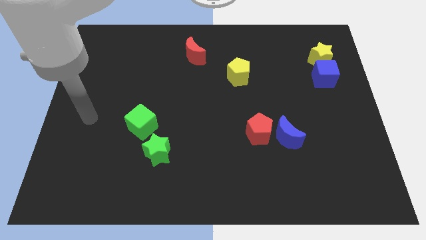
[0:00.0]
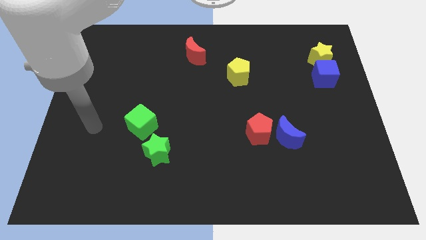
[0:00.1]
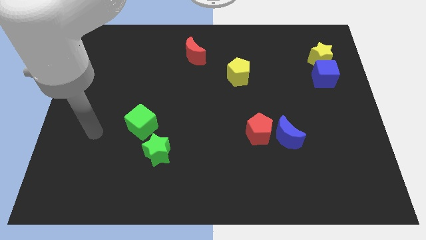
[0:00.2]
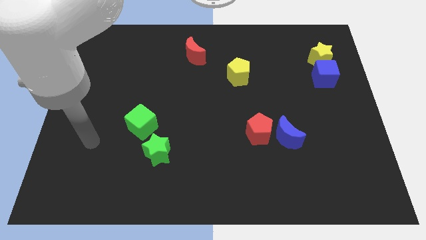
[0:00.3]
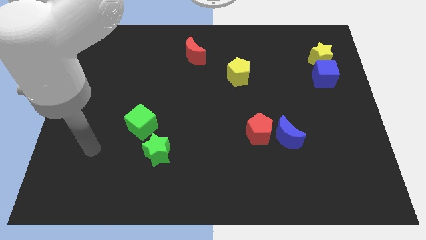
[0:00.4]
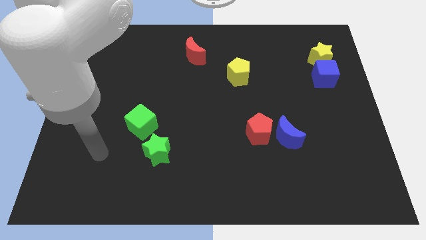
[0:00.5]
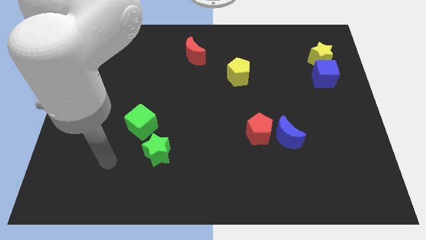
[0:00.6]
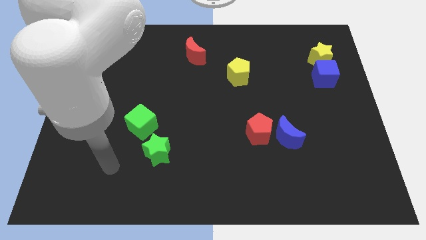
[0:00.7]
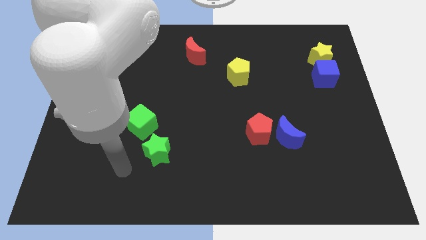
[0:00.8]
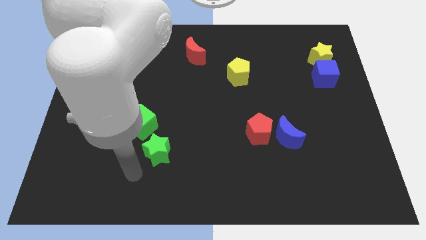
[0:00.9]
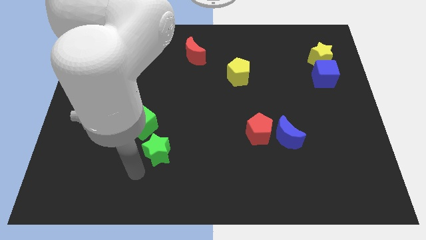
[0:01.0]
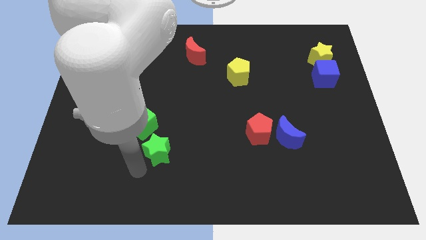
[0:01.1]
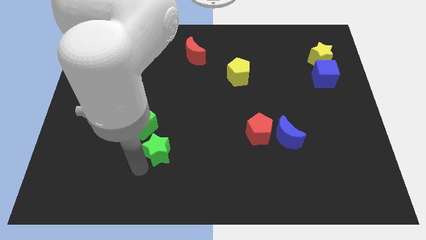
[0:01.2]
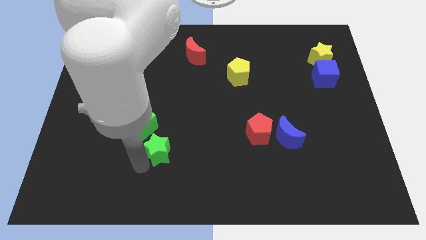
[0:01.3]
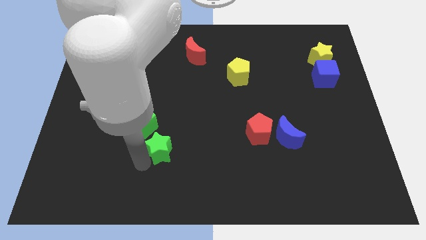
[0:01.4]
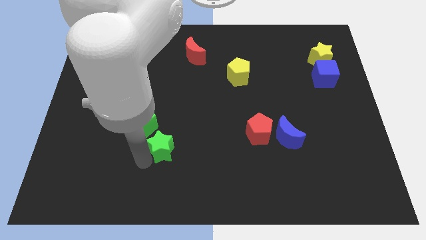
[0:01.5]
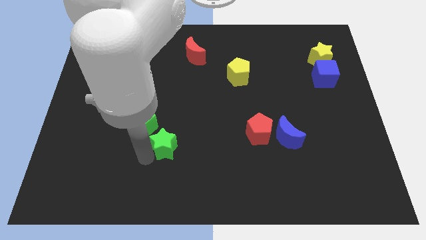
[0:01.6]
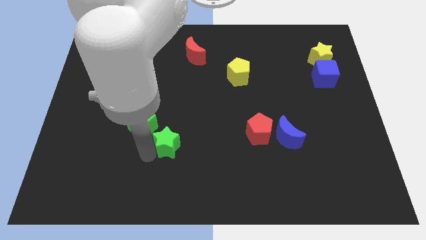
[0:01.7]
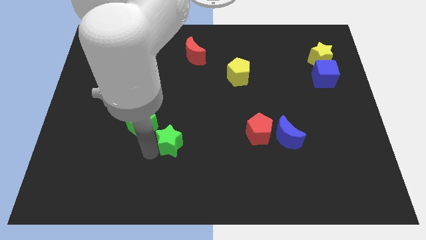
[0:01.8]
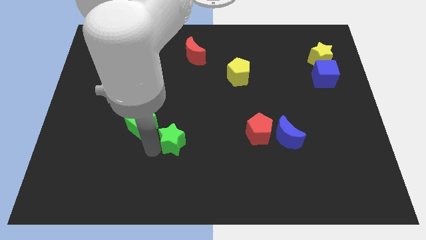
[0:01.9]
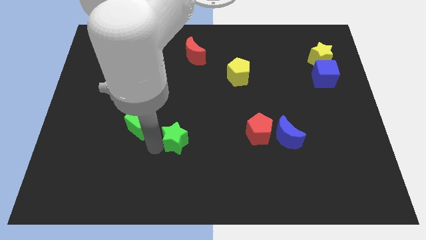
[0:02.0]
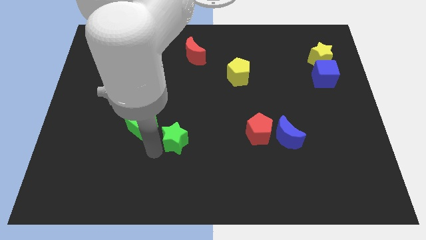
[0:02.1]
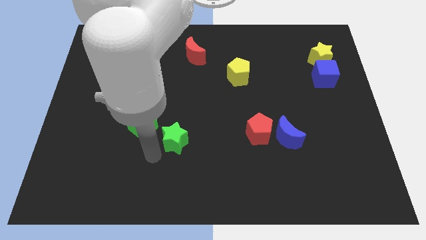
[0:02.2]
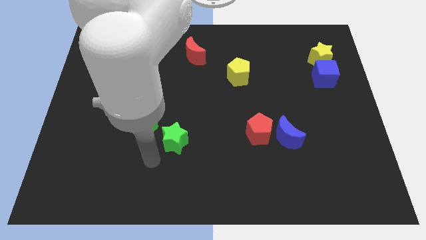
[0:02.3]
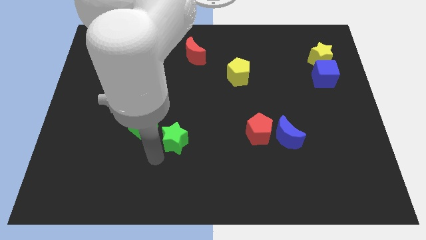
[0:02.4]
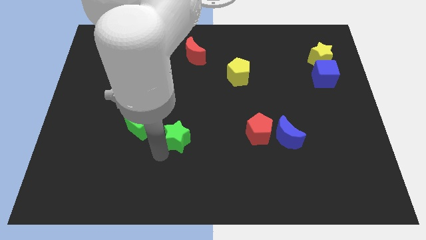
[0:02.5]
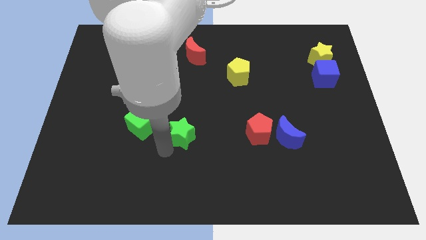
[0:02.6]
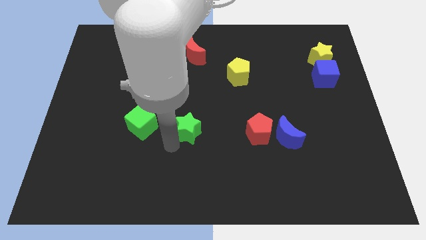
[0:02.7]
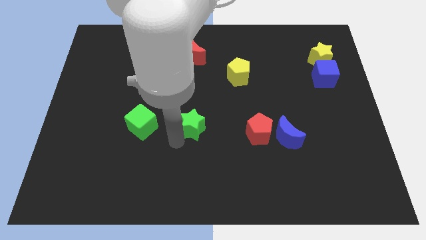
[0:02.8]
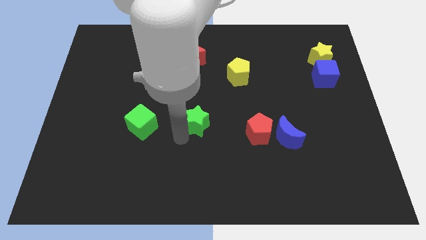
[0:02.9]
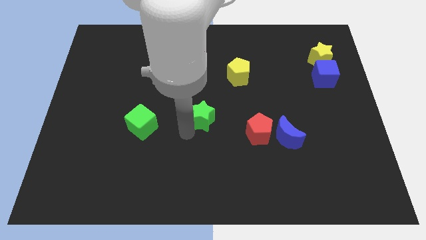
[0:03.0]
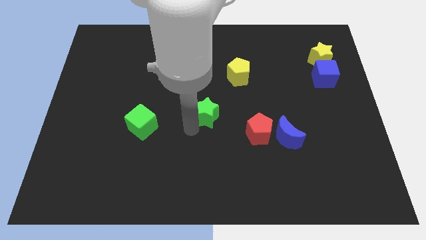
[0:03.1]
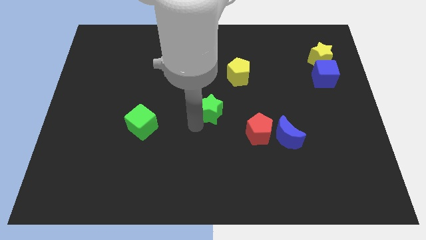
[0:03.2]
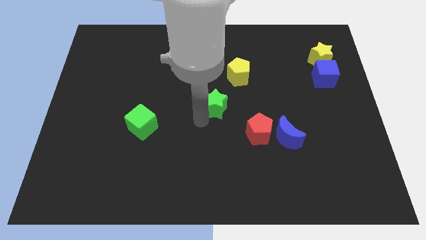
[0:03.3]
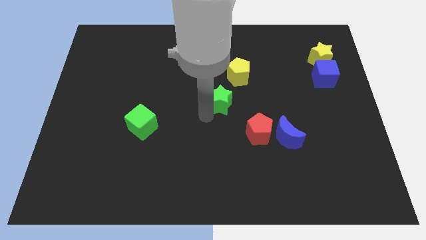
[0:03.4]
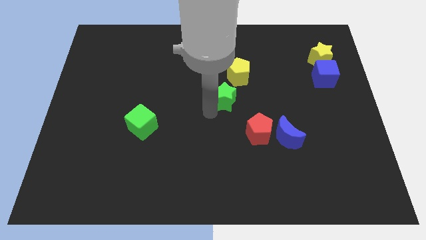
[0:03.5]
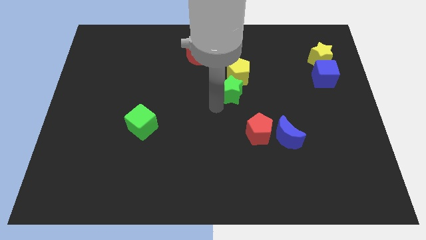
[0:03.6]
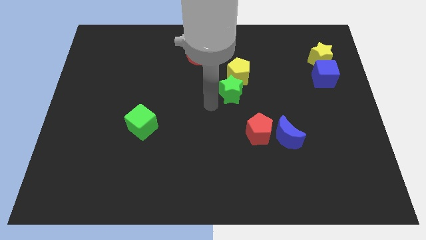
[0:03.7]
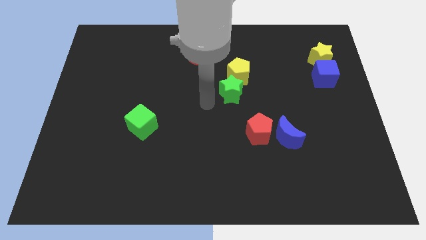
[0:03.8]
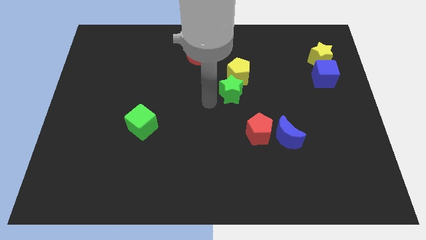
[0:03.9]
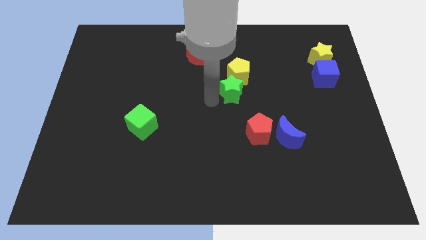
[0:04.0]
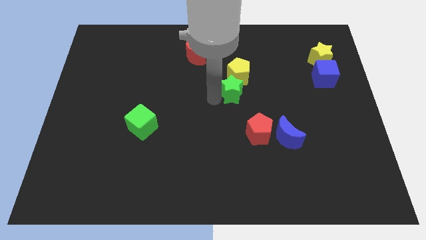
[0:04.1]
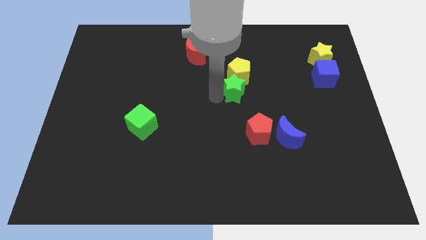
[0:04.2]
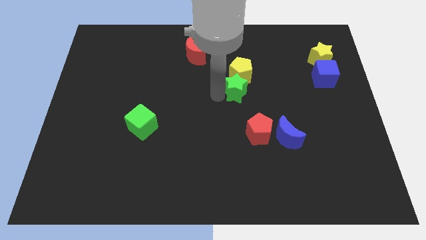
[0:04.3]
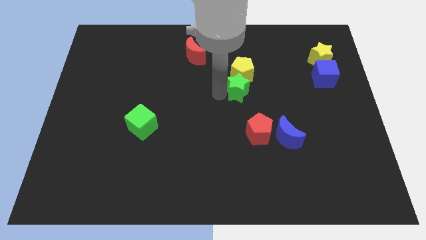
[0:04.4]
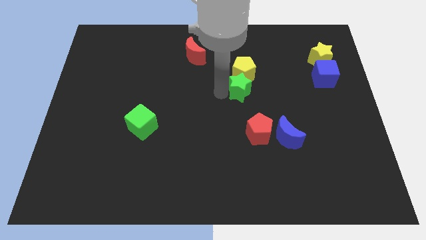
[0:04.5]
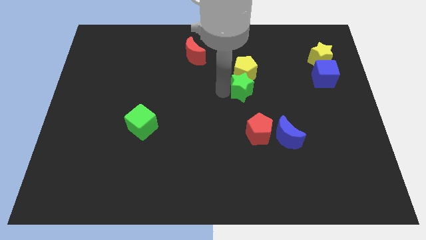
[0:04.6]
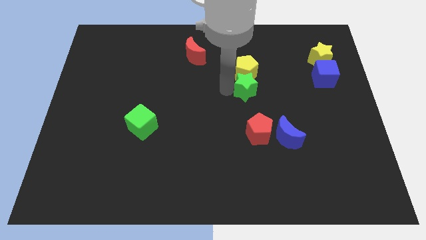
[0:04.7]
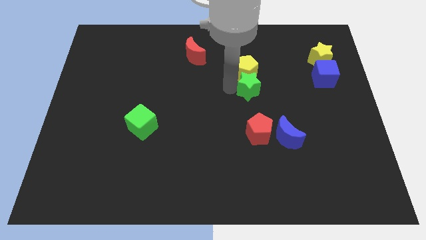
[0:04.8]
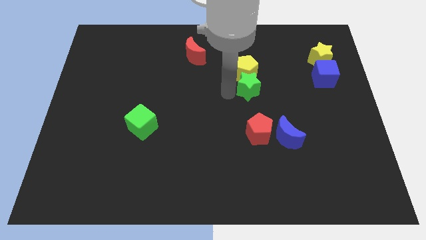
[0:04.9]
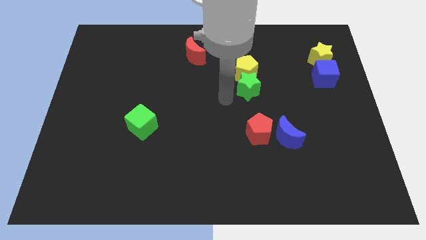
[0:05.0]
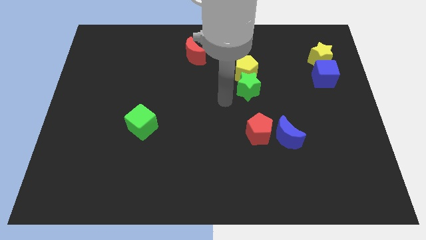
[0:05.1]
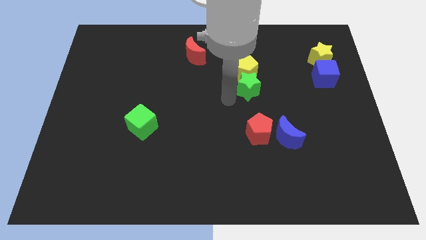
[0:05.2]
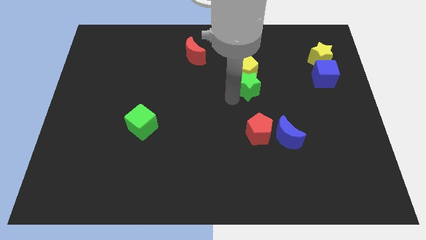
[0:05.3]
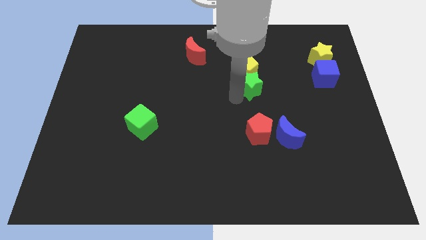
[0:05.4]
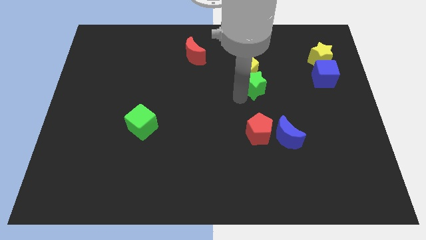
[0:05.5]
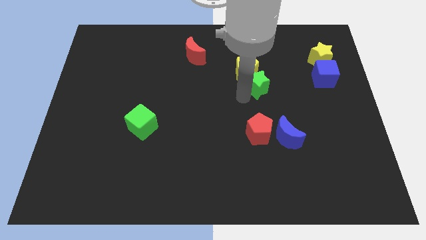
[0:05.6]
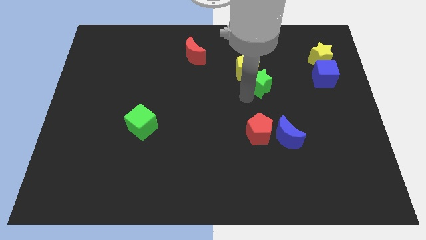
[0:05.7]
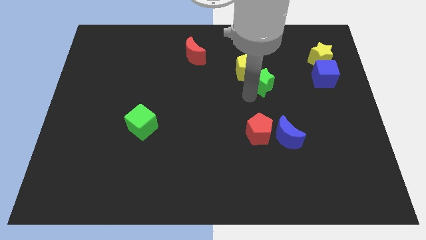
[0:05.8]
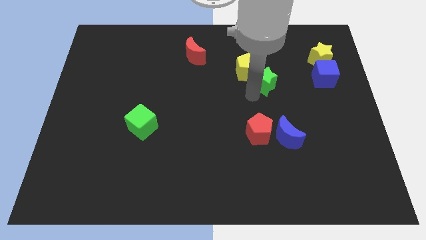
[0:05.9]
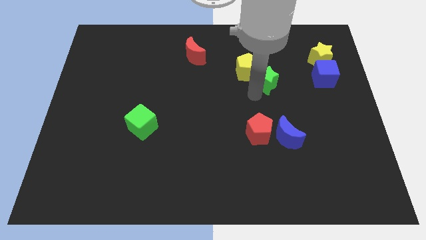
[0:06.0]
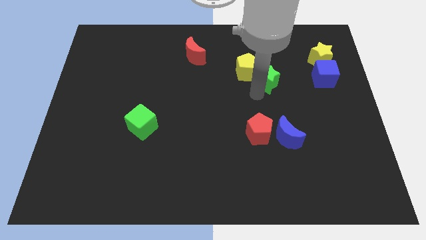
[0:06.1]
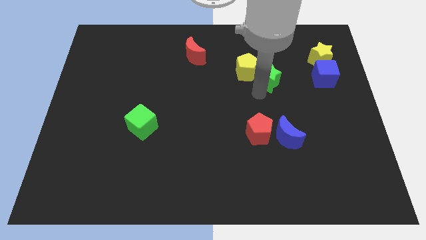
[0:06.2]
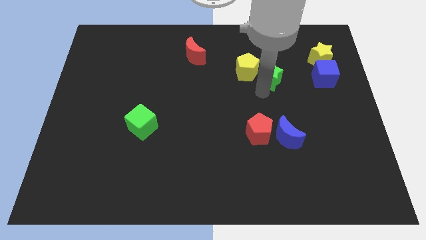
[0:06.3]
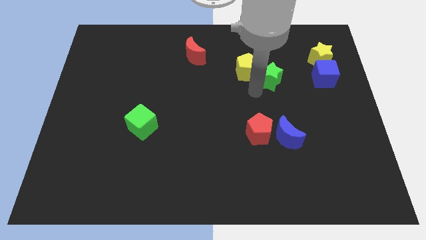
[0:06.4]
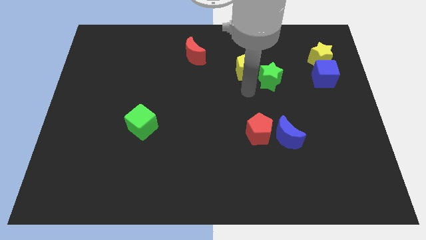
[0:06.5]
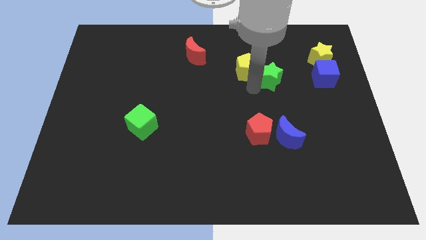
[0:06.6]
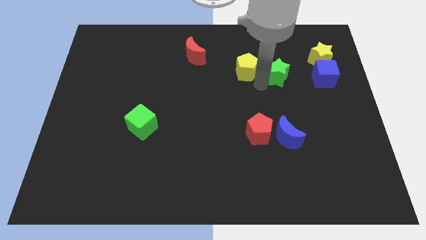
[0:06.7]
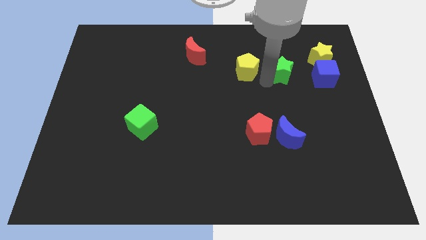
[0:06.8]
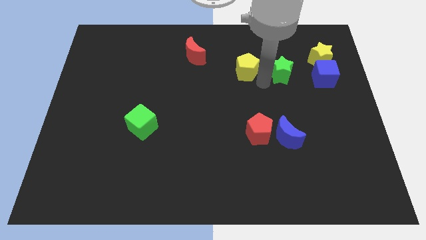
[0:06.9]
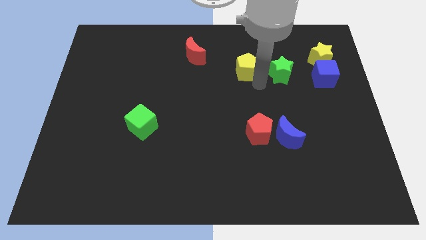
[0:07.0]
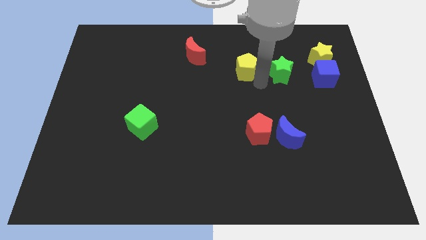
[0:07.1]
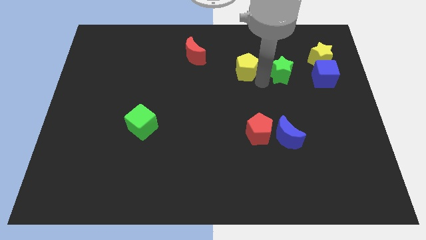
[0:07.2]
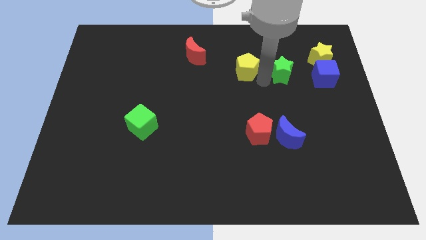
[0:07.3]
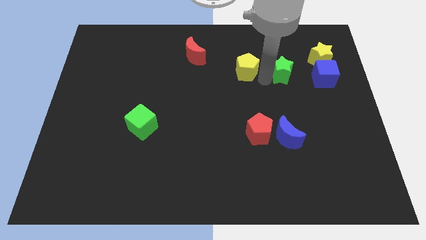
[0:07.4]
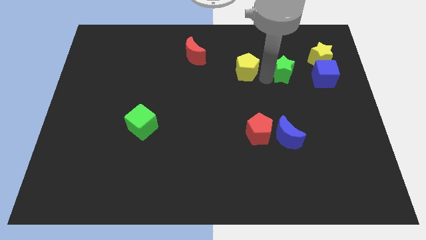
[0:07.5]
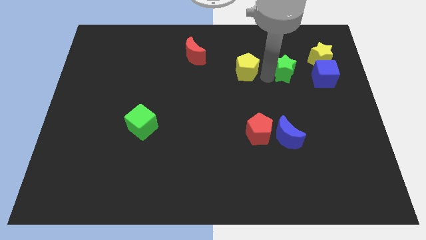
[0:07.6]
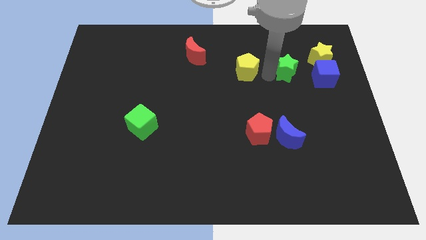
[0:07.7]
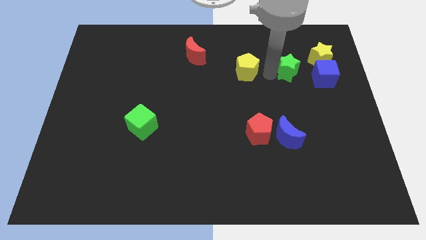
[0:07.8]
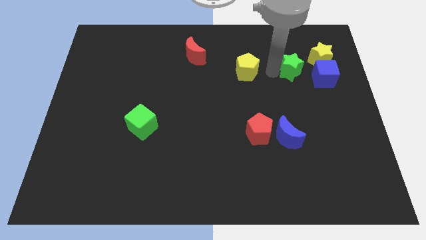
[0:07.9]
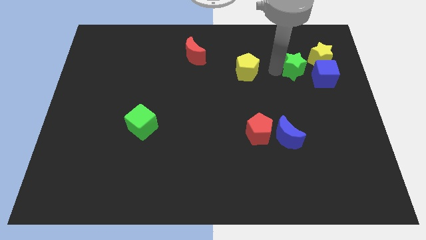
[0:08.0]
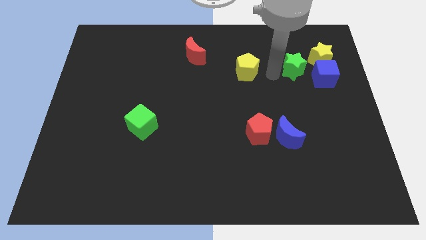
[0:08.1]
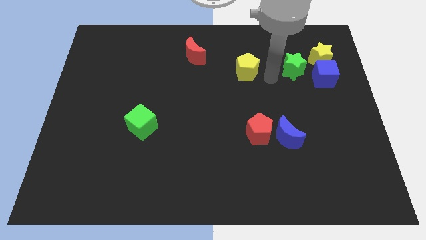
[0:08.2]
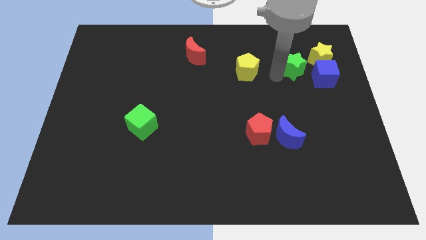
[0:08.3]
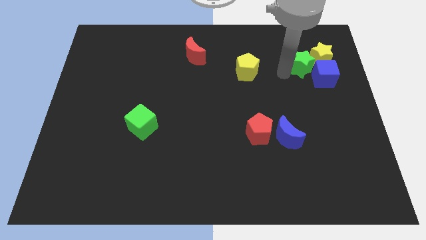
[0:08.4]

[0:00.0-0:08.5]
move the green star towards the yellow star
